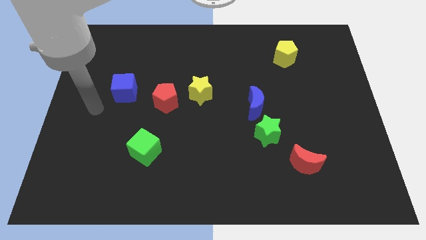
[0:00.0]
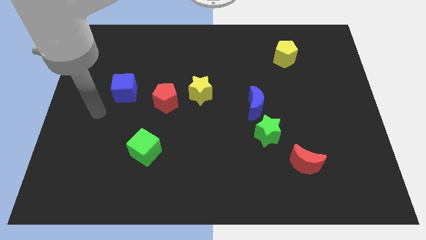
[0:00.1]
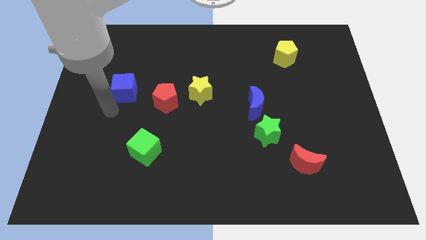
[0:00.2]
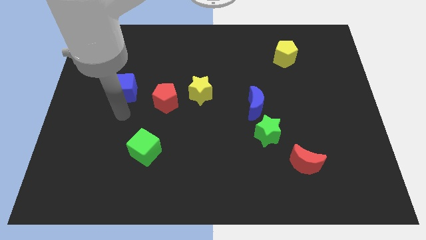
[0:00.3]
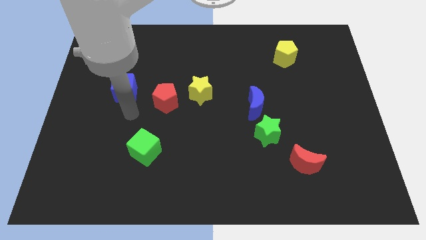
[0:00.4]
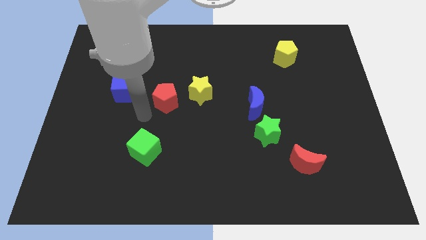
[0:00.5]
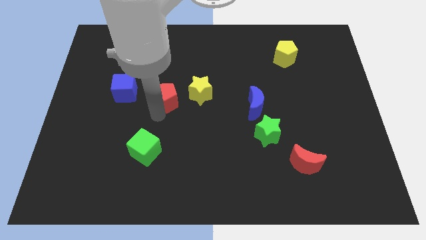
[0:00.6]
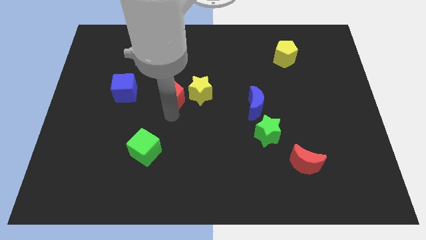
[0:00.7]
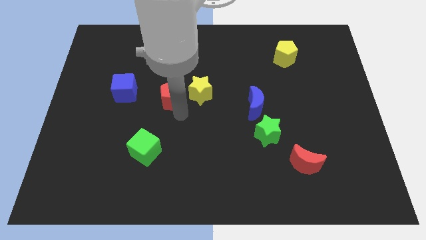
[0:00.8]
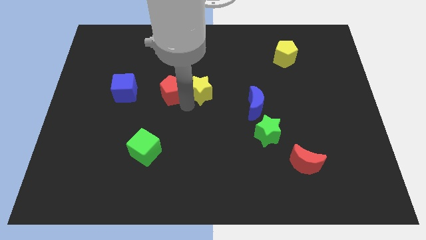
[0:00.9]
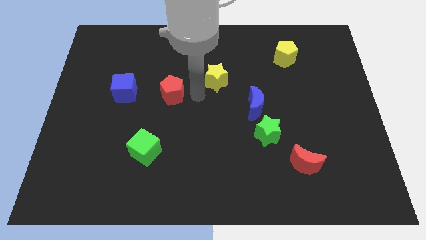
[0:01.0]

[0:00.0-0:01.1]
move the red pentagon away from the yellow star

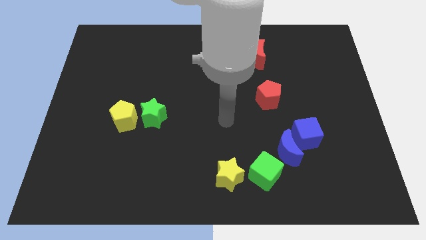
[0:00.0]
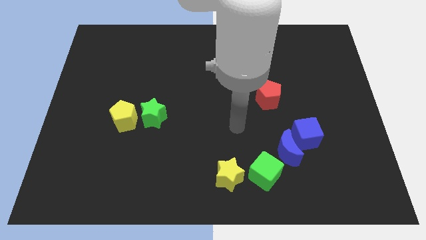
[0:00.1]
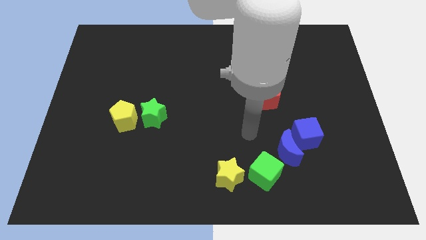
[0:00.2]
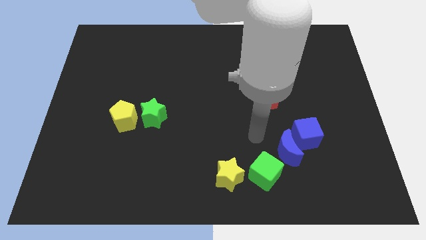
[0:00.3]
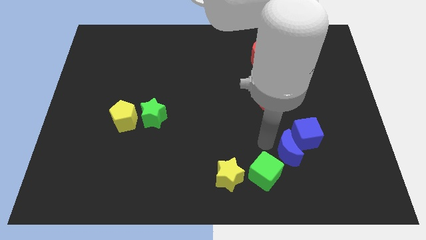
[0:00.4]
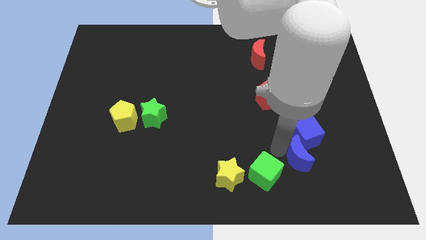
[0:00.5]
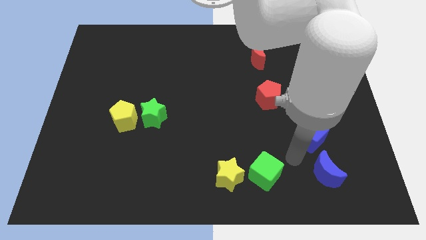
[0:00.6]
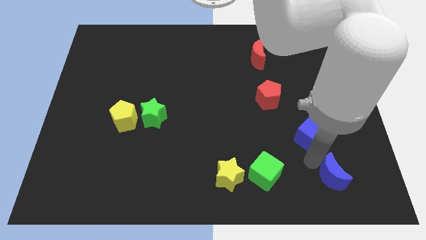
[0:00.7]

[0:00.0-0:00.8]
separate the blue cube from the blue moon

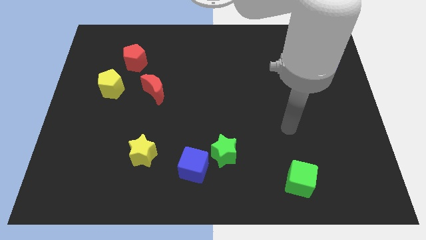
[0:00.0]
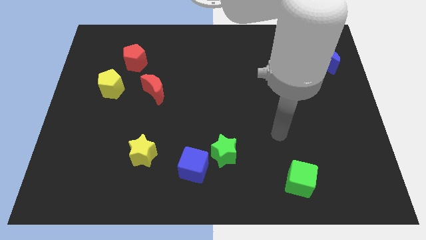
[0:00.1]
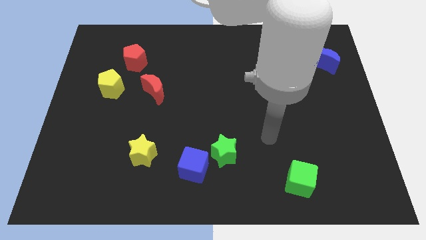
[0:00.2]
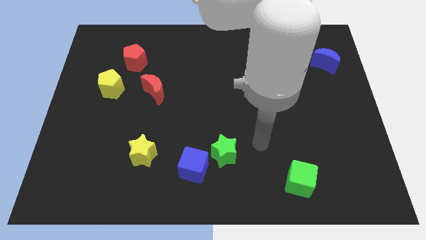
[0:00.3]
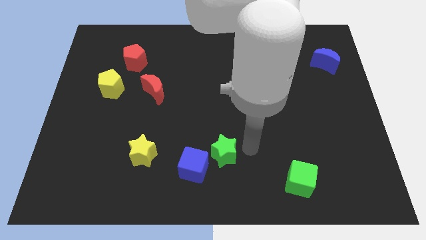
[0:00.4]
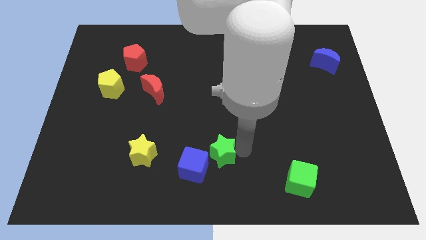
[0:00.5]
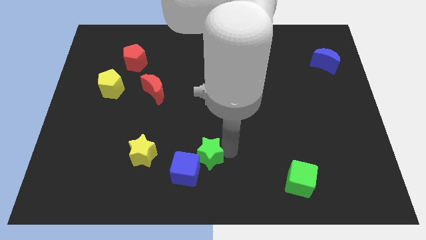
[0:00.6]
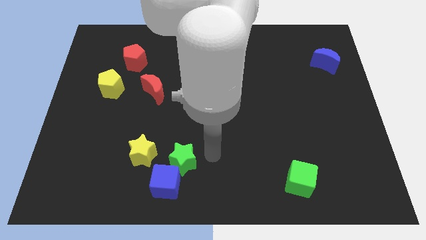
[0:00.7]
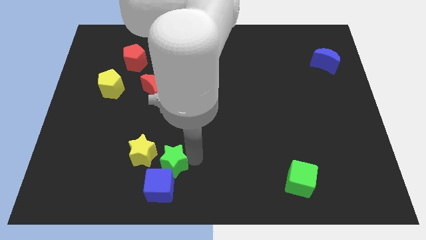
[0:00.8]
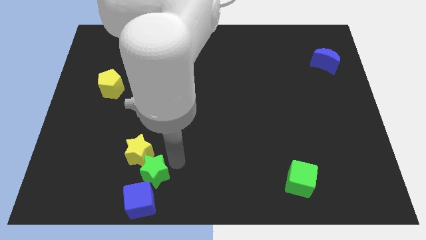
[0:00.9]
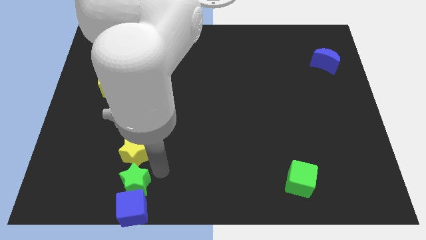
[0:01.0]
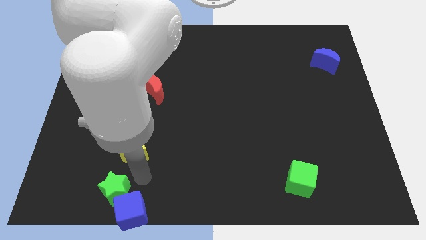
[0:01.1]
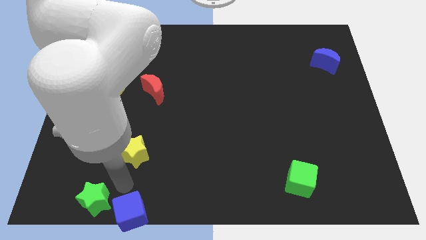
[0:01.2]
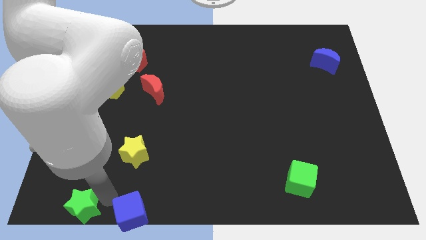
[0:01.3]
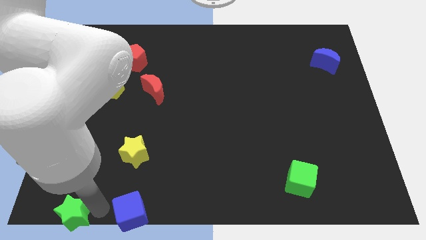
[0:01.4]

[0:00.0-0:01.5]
separate the blue cube from the green star

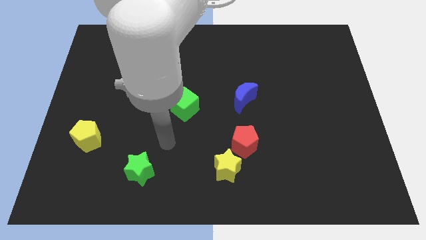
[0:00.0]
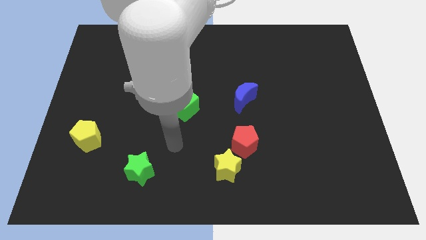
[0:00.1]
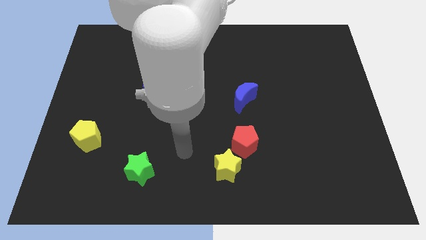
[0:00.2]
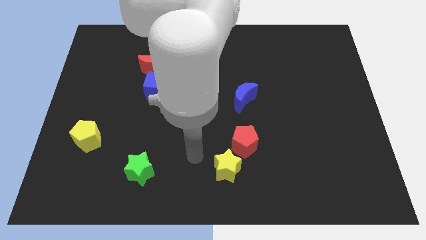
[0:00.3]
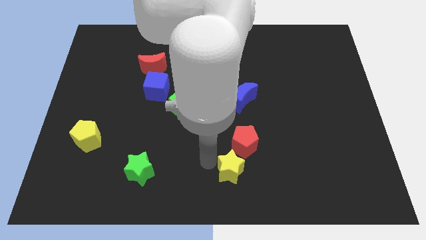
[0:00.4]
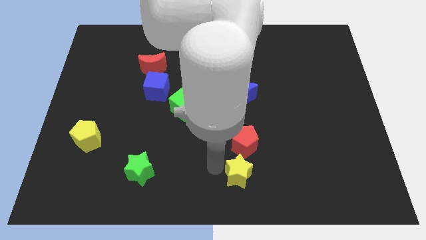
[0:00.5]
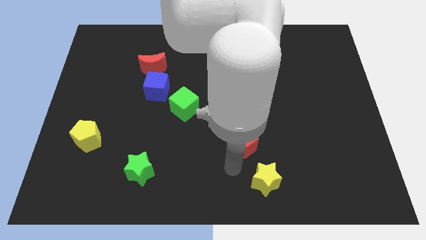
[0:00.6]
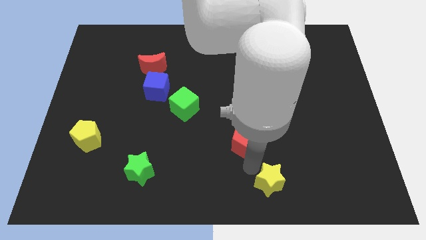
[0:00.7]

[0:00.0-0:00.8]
separate the red pentagon from the yellow star

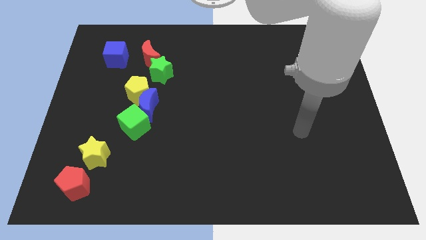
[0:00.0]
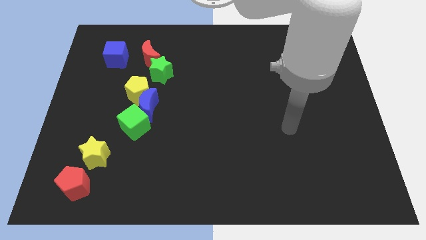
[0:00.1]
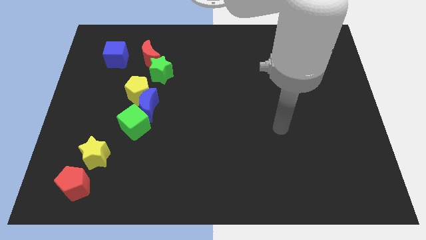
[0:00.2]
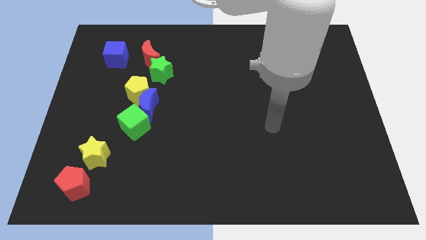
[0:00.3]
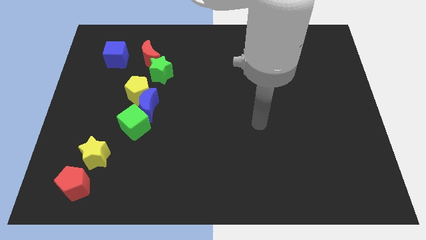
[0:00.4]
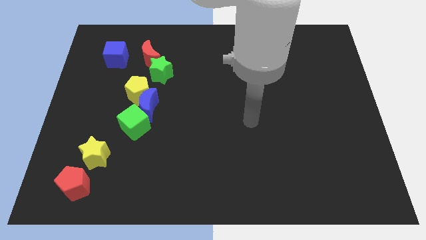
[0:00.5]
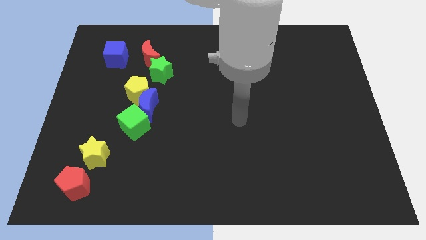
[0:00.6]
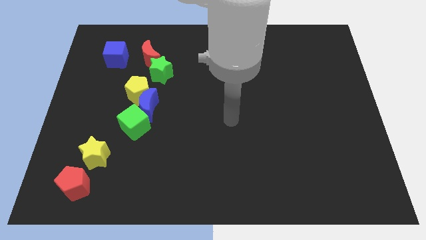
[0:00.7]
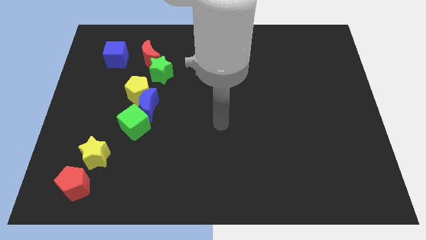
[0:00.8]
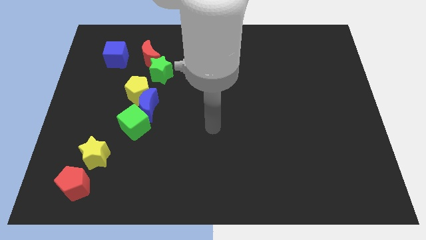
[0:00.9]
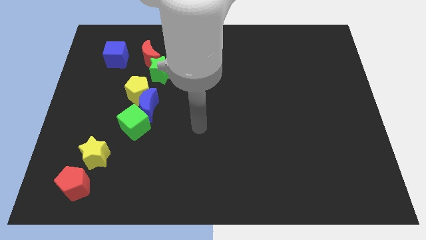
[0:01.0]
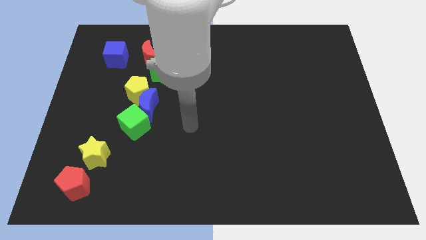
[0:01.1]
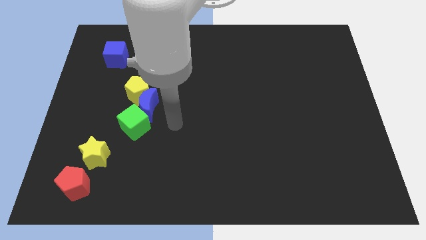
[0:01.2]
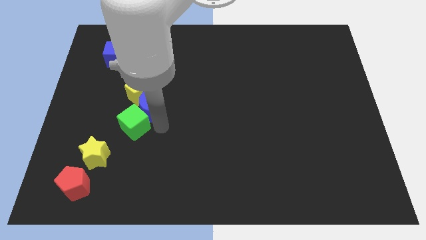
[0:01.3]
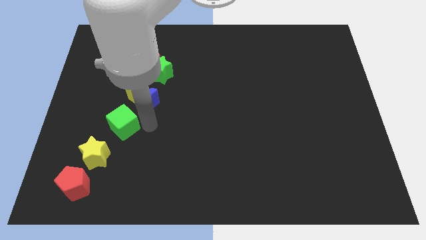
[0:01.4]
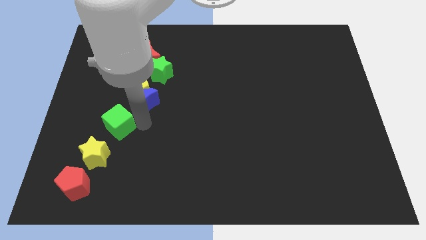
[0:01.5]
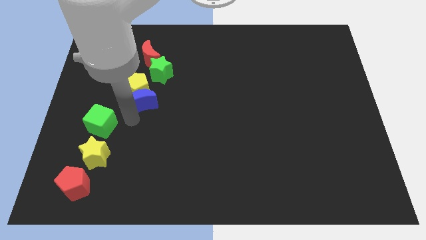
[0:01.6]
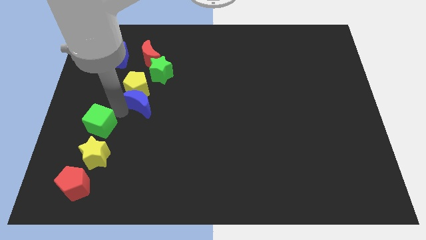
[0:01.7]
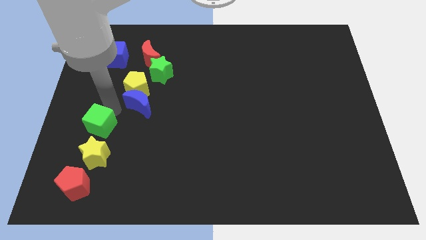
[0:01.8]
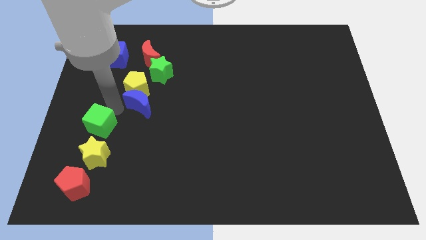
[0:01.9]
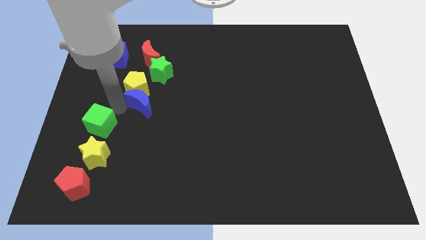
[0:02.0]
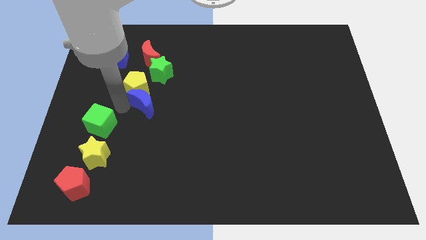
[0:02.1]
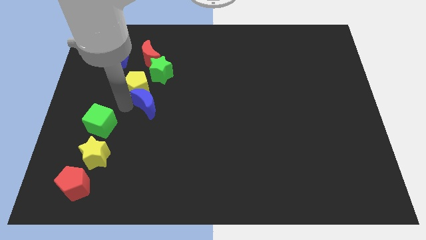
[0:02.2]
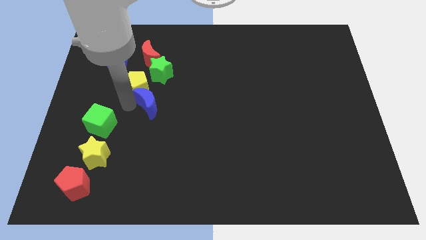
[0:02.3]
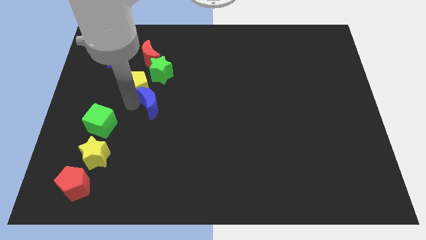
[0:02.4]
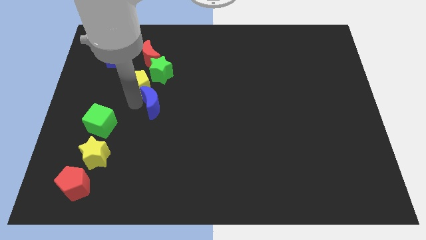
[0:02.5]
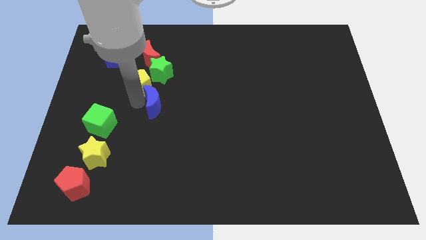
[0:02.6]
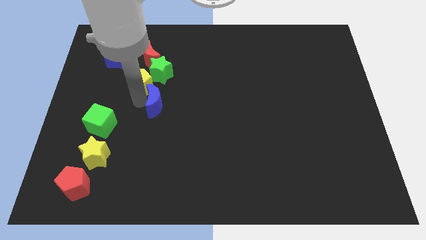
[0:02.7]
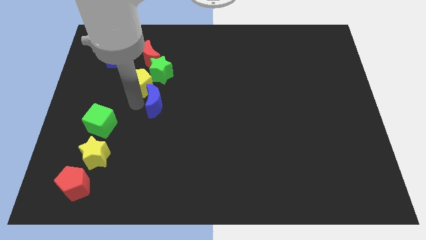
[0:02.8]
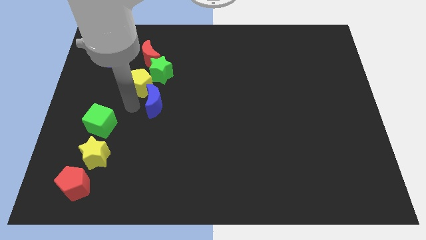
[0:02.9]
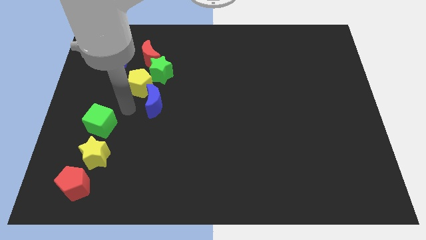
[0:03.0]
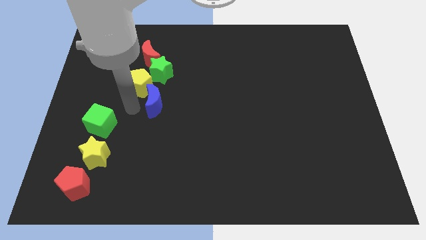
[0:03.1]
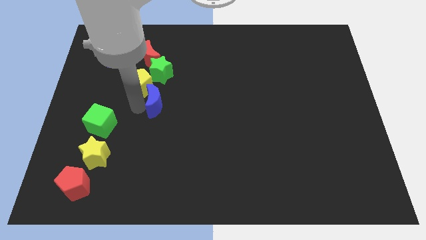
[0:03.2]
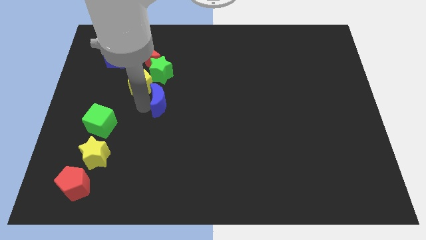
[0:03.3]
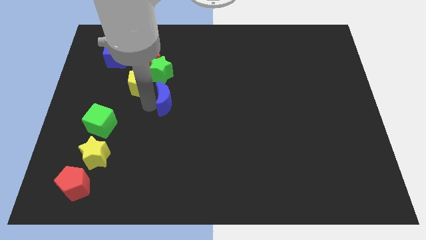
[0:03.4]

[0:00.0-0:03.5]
pull the blue moon apart from the yellow pentagon and green cube

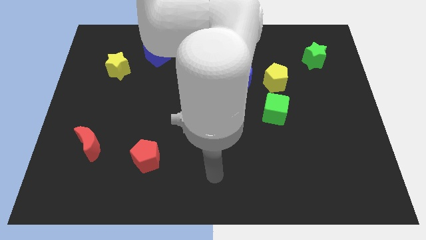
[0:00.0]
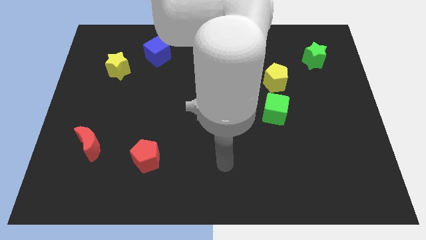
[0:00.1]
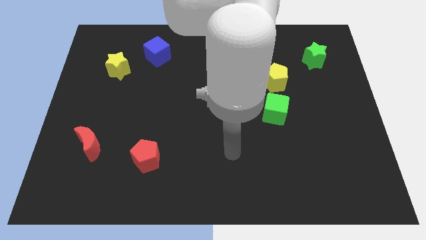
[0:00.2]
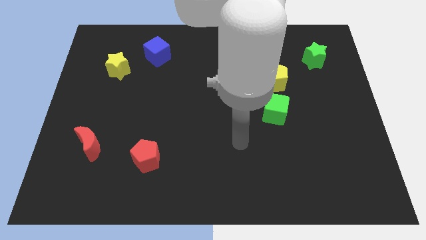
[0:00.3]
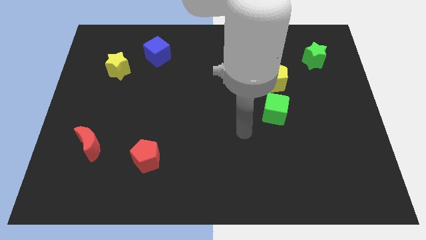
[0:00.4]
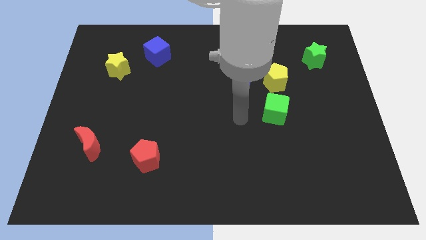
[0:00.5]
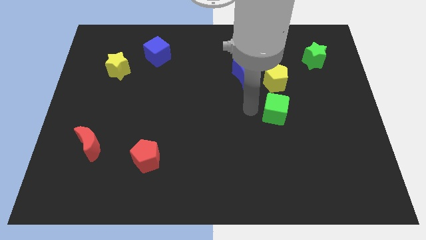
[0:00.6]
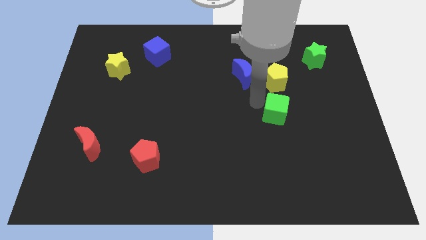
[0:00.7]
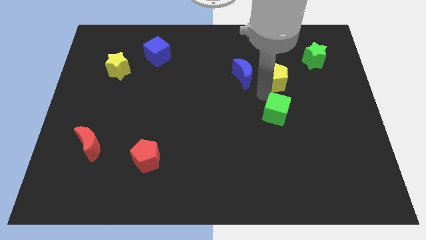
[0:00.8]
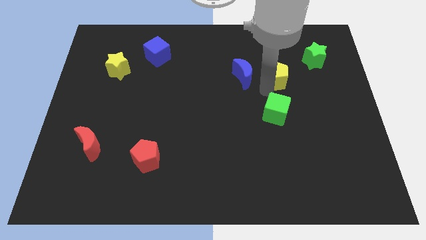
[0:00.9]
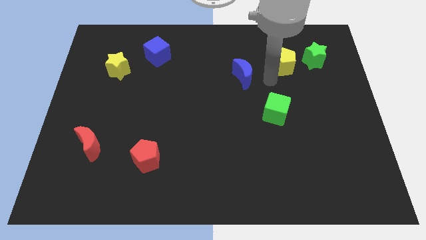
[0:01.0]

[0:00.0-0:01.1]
separate the blue moon from the yellow pentagon

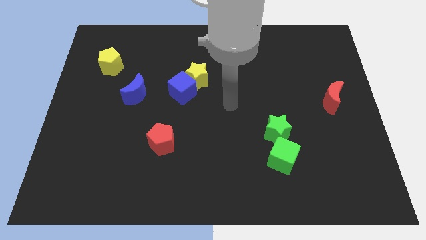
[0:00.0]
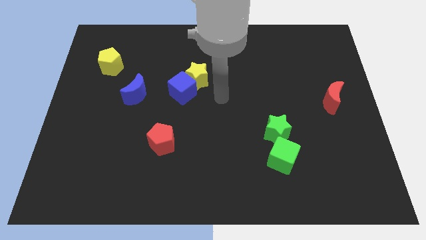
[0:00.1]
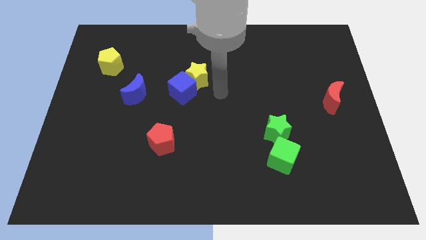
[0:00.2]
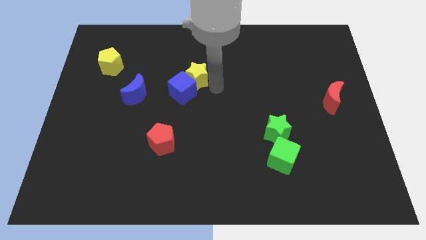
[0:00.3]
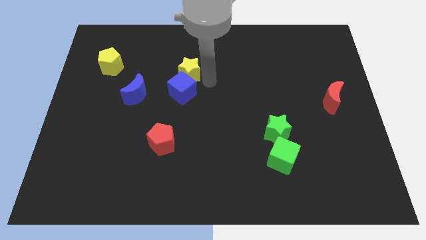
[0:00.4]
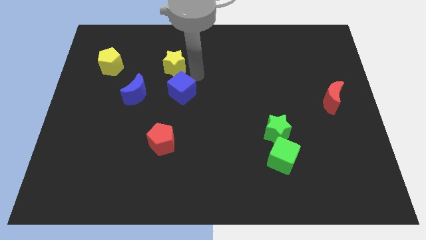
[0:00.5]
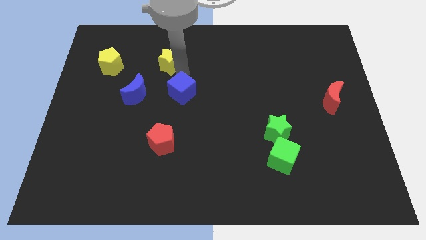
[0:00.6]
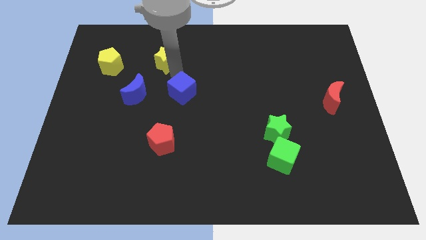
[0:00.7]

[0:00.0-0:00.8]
pull the blue cube apart from the yellow star
